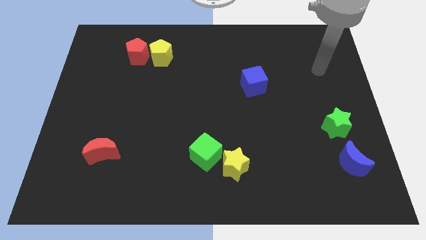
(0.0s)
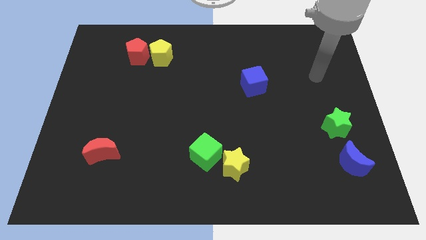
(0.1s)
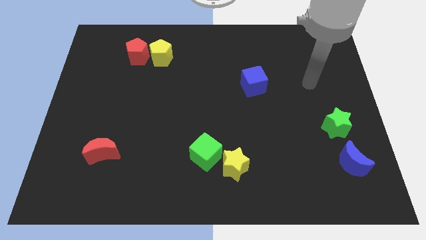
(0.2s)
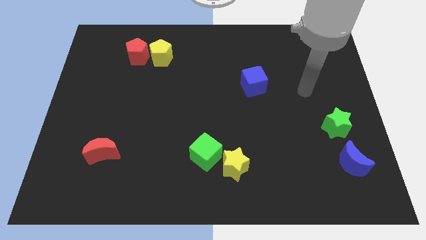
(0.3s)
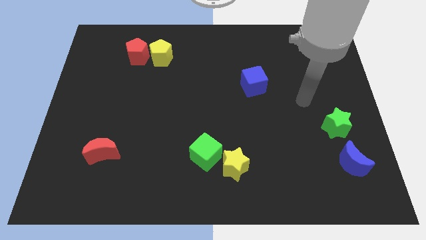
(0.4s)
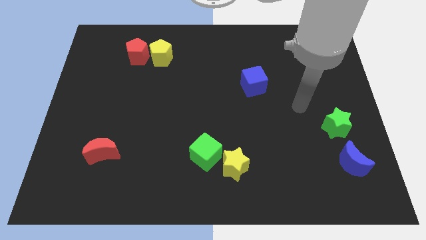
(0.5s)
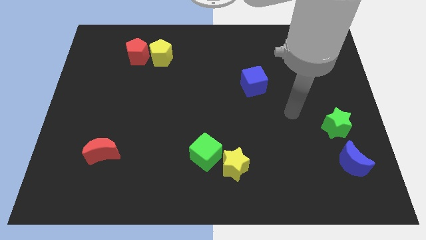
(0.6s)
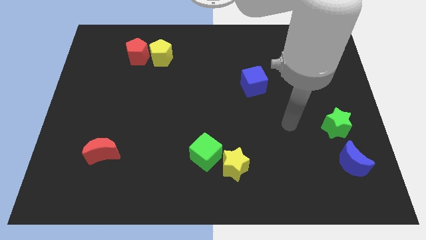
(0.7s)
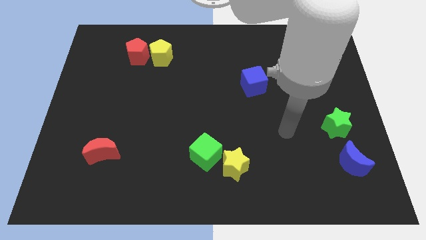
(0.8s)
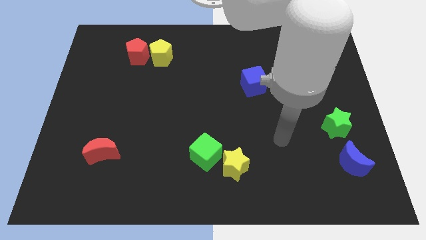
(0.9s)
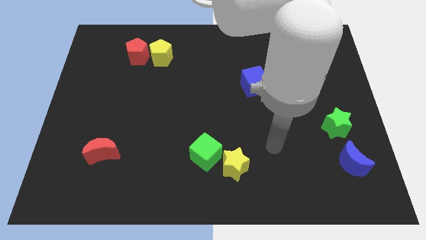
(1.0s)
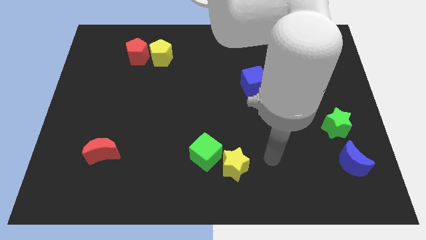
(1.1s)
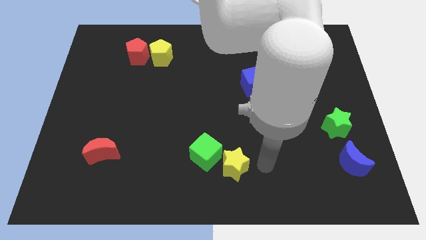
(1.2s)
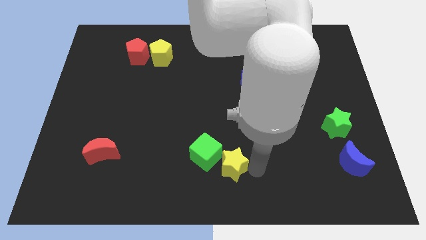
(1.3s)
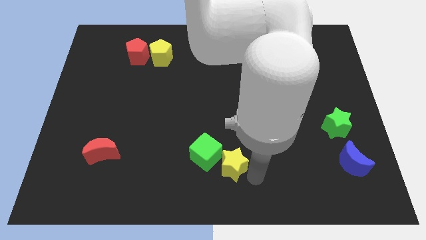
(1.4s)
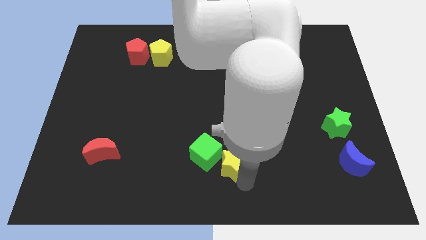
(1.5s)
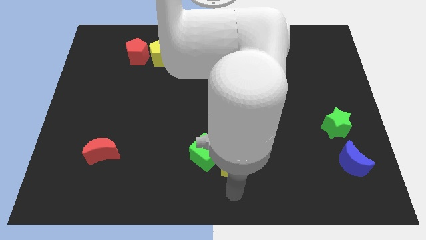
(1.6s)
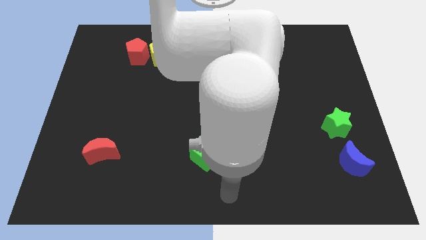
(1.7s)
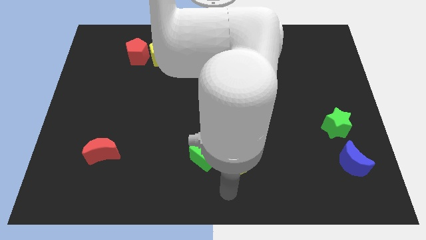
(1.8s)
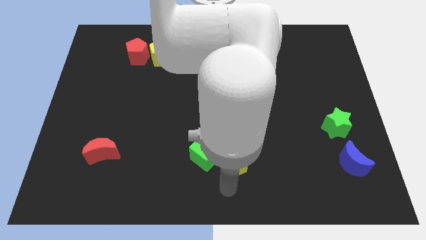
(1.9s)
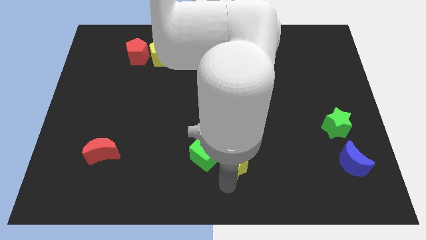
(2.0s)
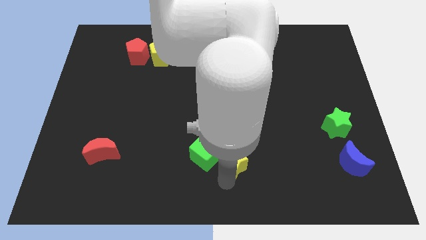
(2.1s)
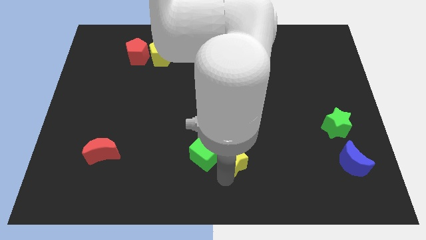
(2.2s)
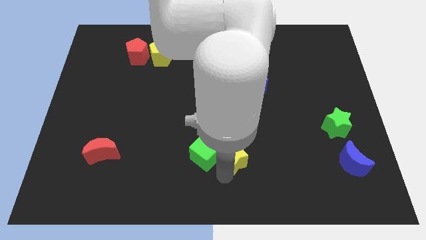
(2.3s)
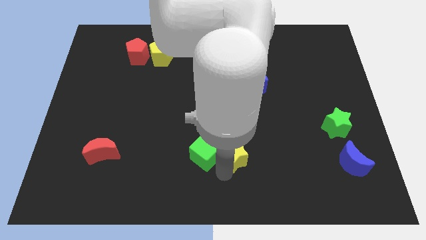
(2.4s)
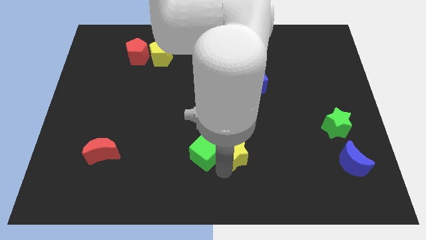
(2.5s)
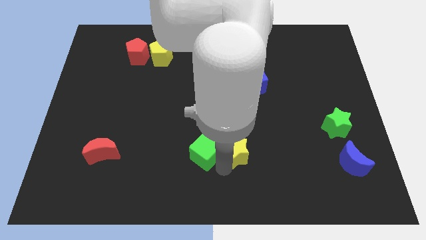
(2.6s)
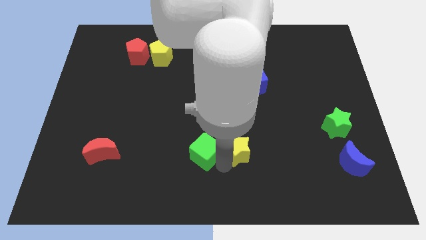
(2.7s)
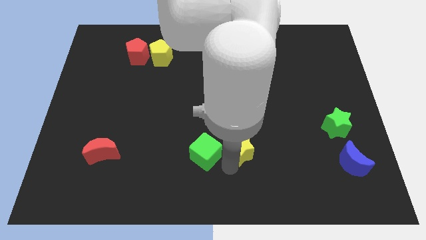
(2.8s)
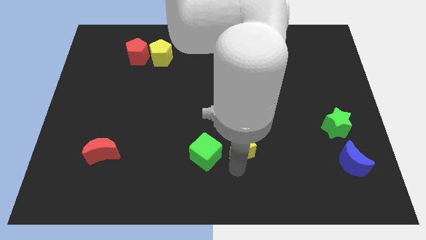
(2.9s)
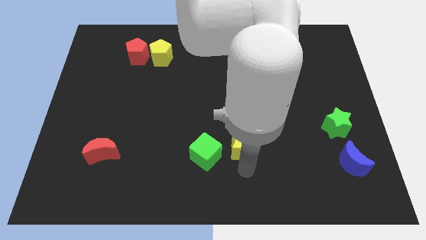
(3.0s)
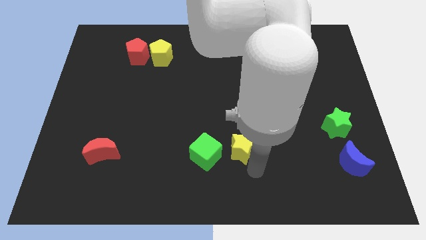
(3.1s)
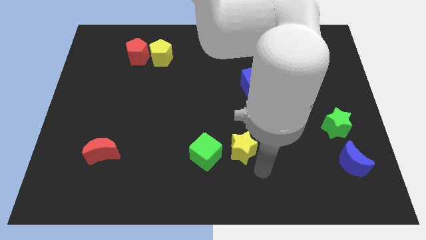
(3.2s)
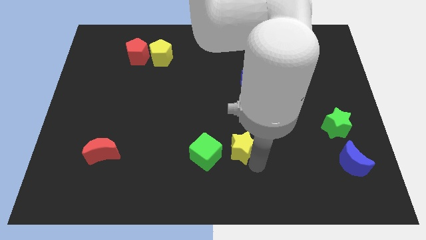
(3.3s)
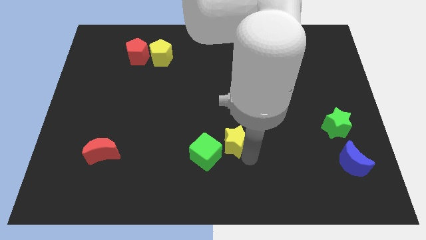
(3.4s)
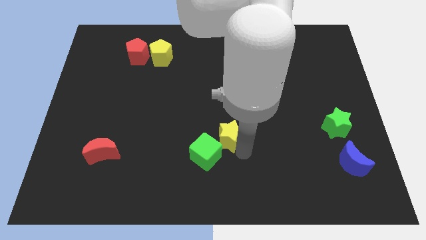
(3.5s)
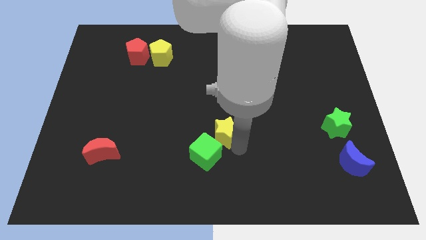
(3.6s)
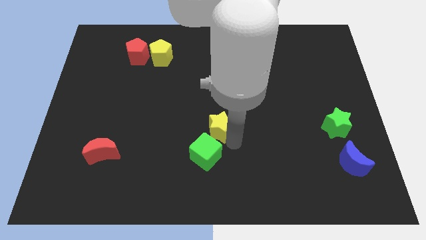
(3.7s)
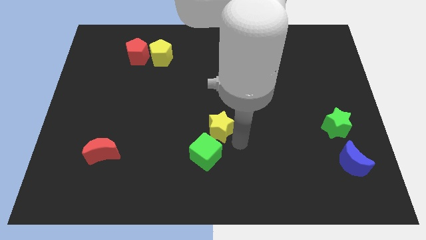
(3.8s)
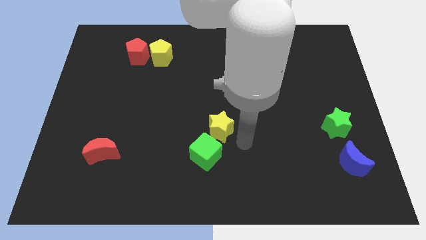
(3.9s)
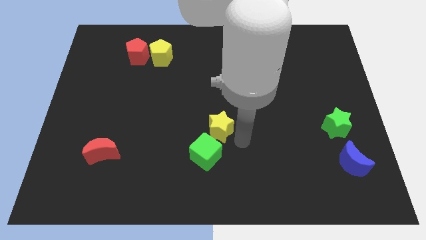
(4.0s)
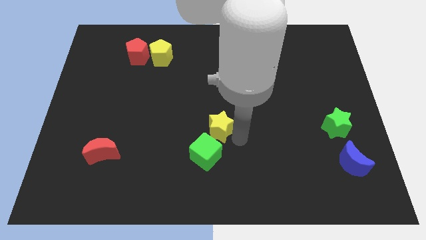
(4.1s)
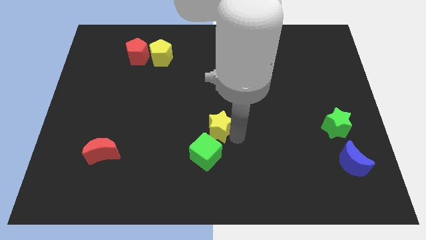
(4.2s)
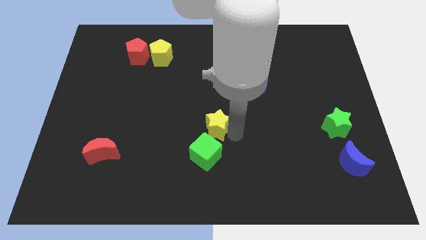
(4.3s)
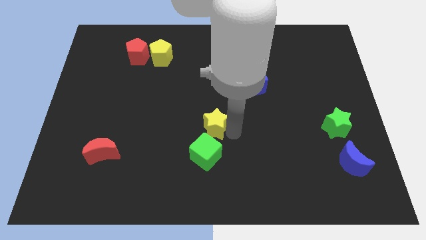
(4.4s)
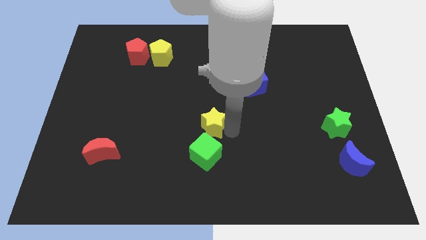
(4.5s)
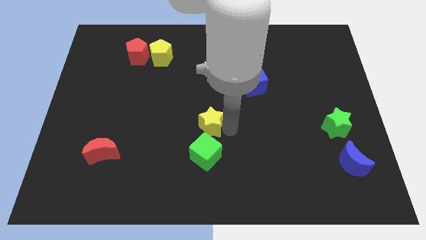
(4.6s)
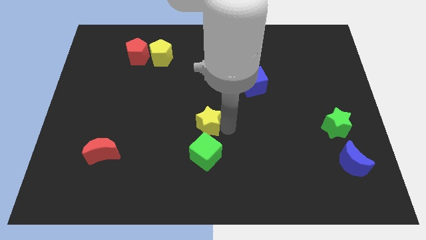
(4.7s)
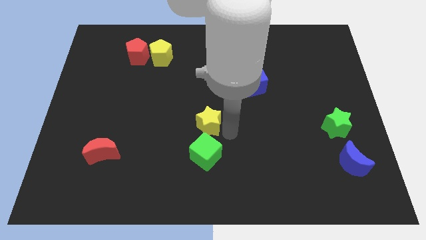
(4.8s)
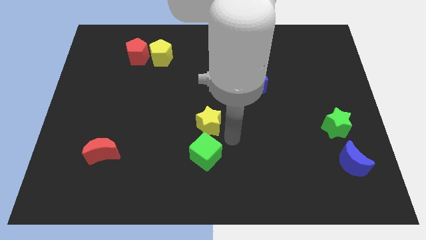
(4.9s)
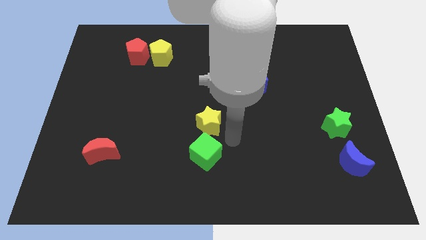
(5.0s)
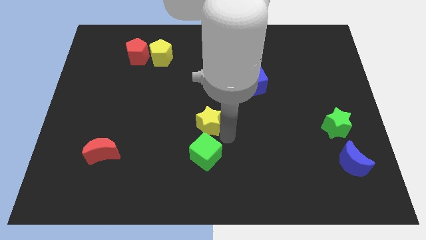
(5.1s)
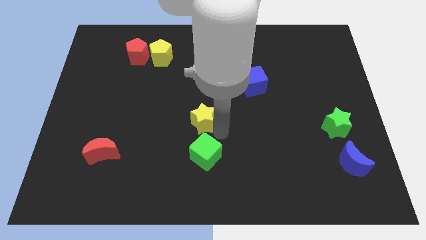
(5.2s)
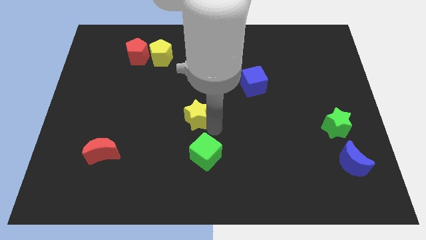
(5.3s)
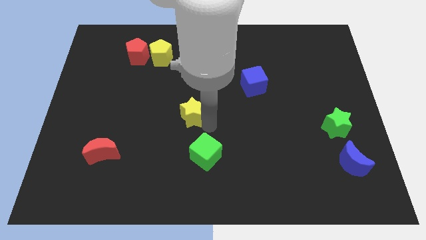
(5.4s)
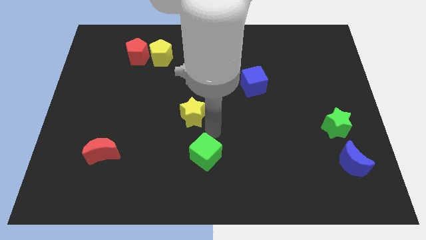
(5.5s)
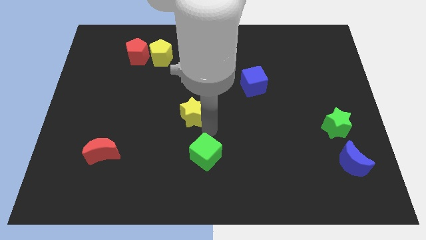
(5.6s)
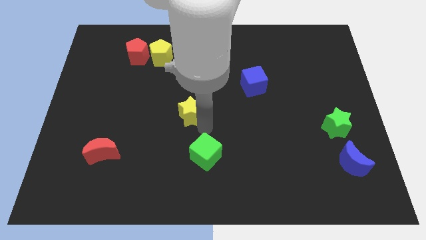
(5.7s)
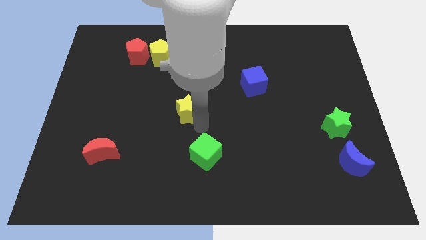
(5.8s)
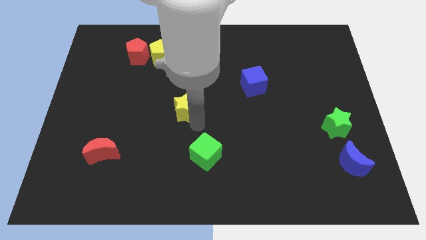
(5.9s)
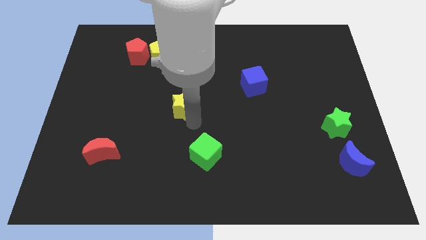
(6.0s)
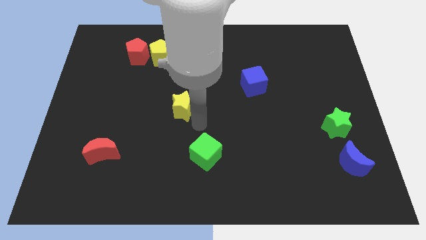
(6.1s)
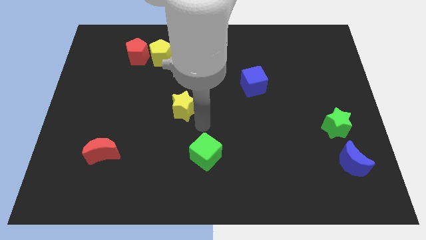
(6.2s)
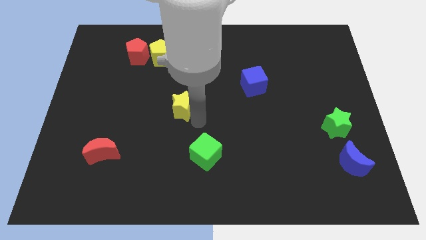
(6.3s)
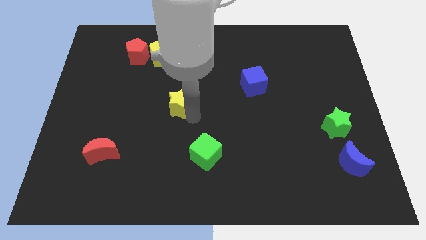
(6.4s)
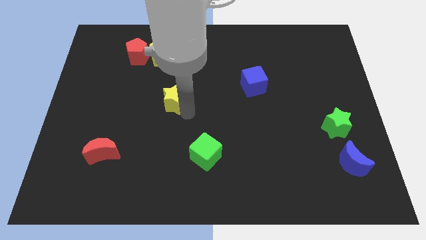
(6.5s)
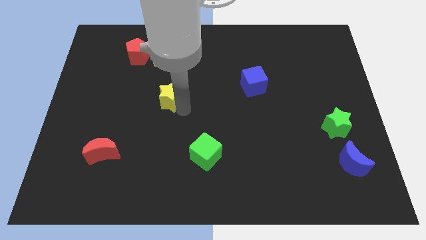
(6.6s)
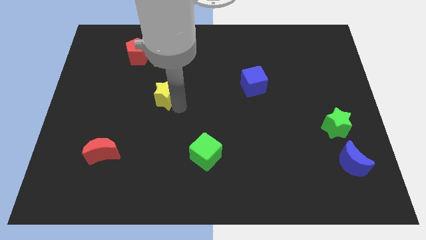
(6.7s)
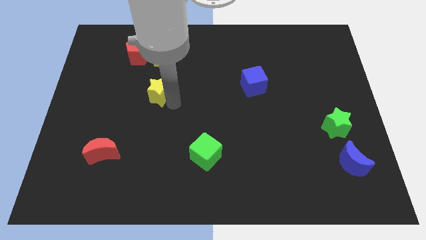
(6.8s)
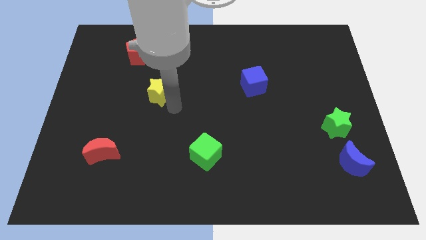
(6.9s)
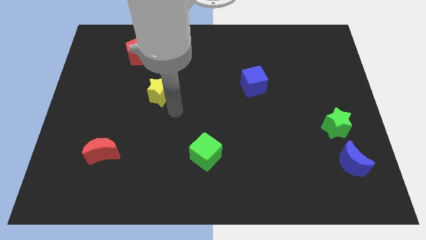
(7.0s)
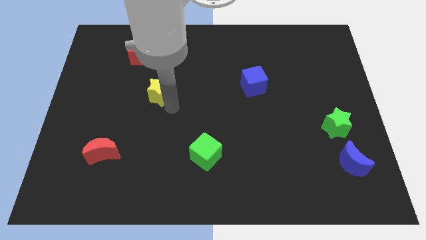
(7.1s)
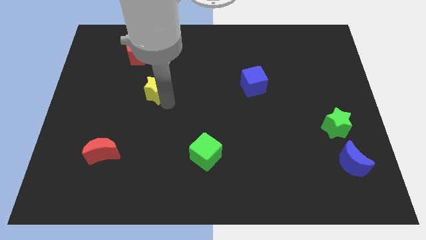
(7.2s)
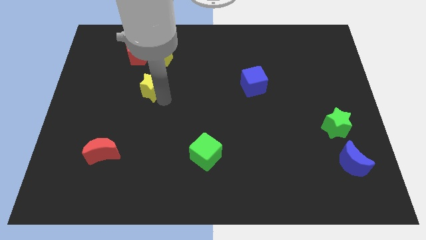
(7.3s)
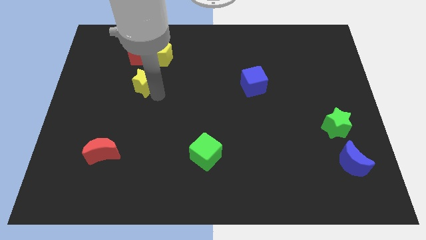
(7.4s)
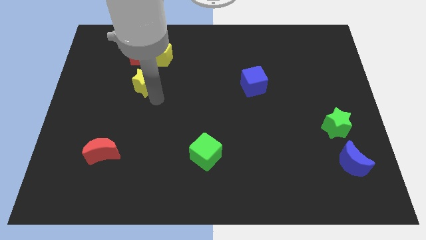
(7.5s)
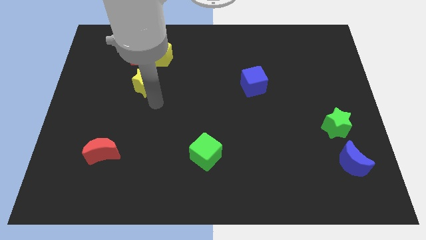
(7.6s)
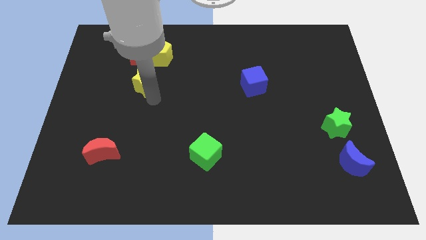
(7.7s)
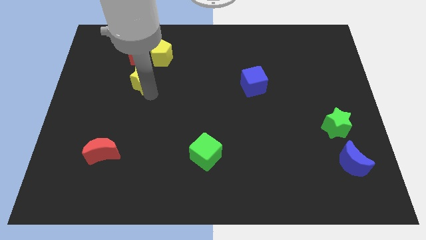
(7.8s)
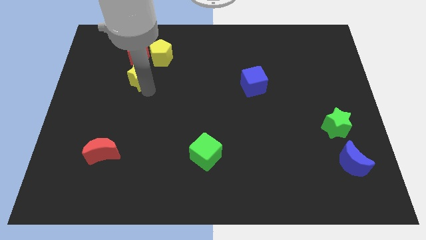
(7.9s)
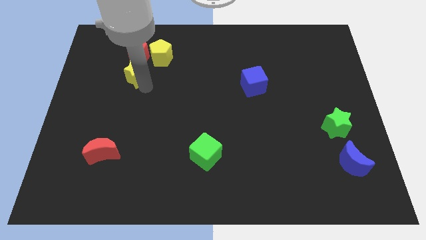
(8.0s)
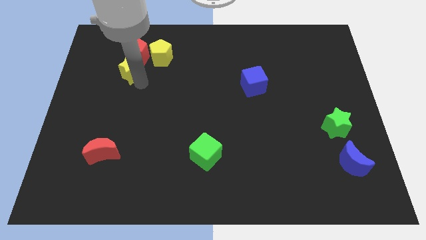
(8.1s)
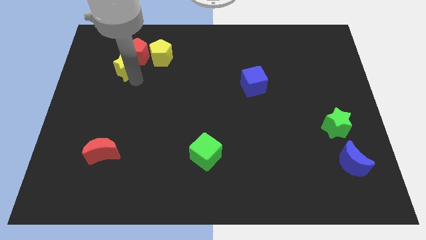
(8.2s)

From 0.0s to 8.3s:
push the yellow star to the red pentagon
